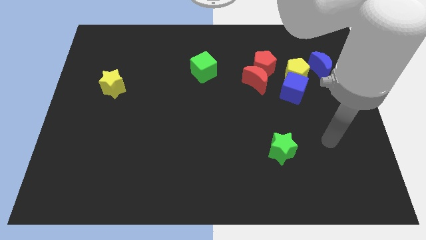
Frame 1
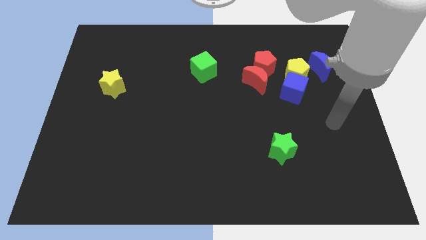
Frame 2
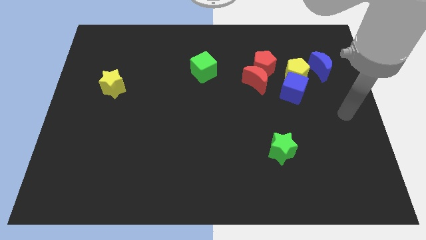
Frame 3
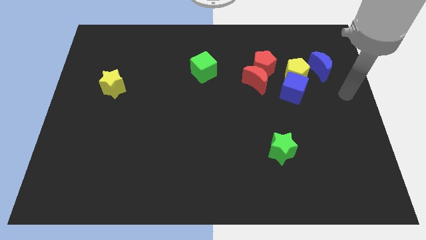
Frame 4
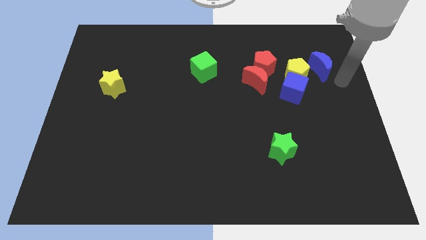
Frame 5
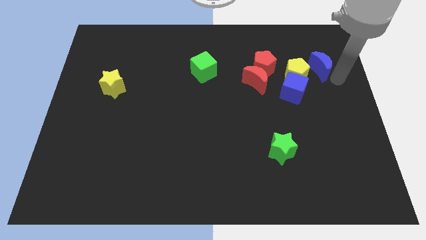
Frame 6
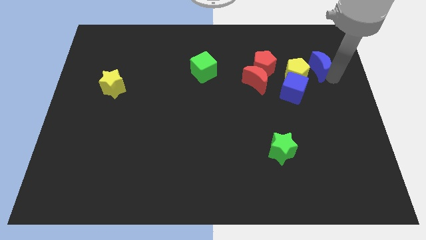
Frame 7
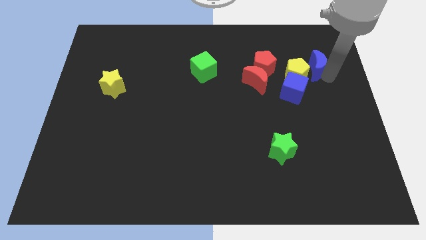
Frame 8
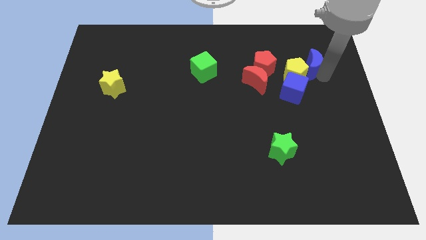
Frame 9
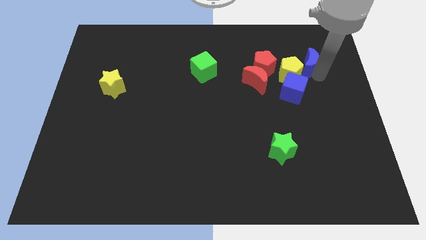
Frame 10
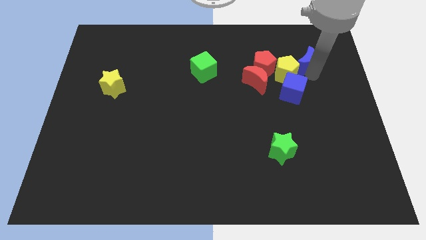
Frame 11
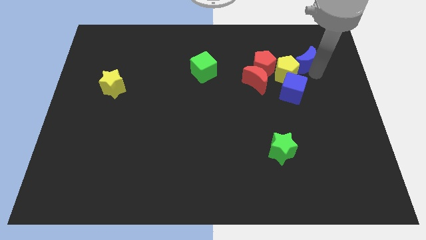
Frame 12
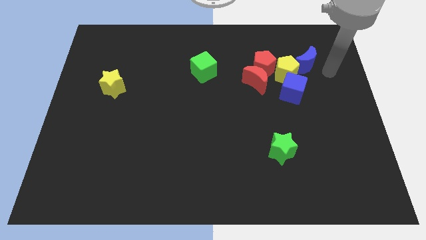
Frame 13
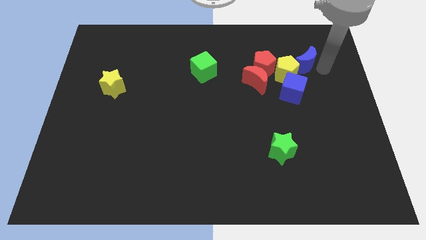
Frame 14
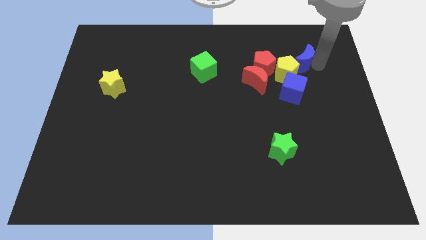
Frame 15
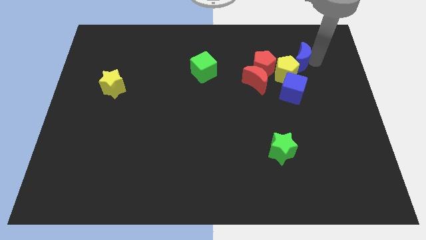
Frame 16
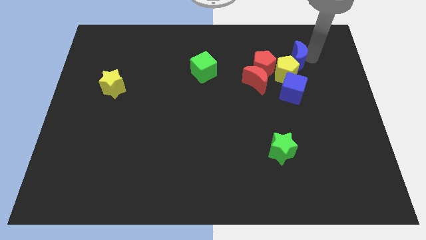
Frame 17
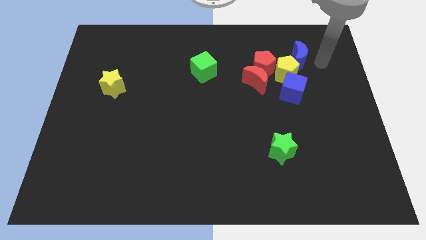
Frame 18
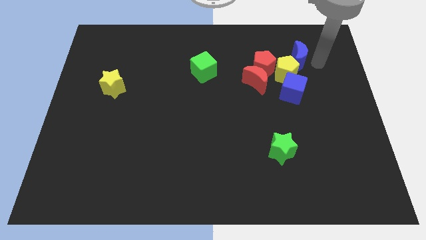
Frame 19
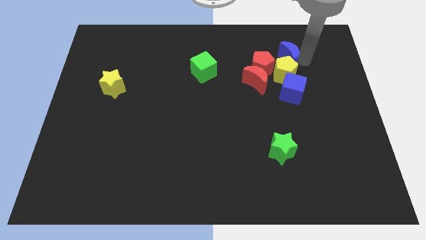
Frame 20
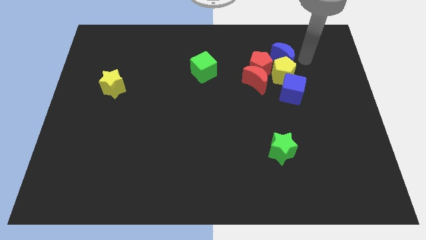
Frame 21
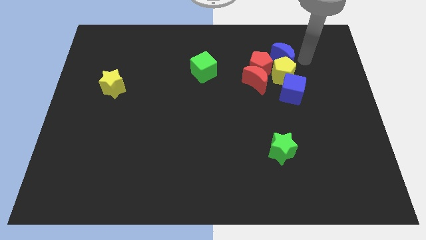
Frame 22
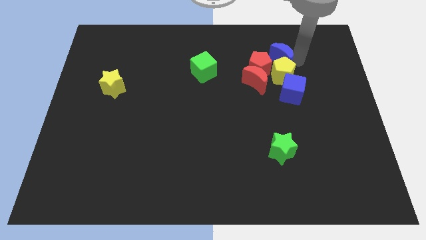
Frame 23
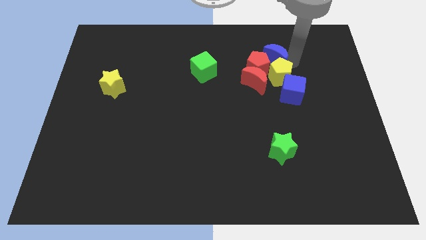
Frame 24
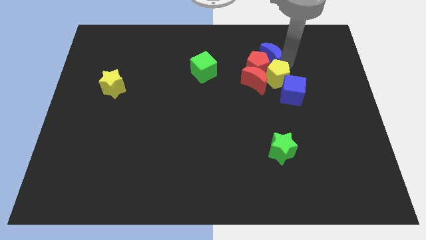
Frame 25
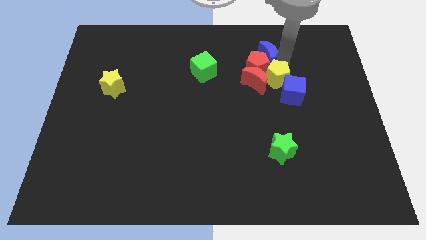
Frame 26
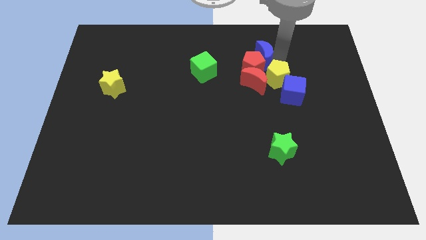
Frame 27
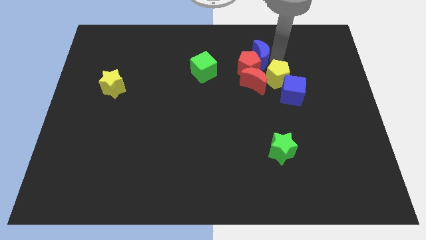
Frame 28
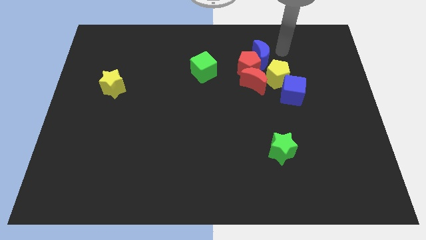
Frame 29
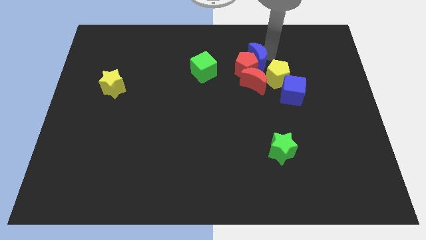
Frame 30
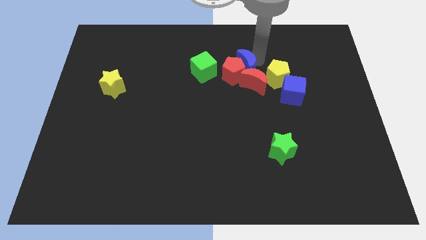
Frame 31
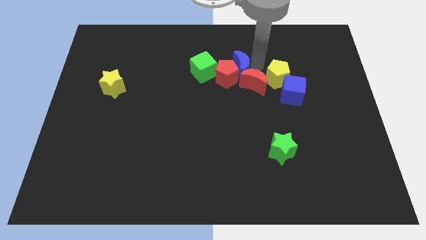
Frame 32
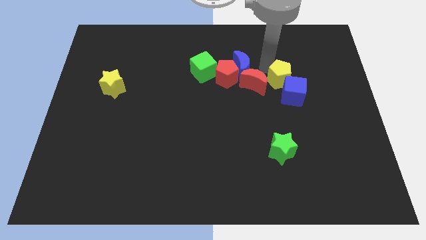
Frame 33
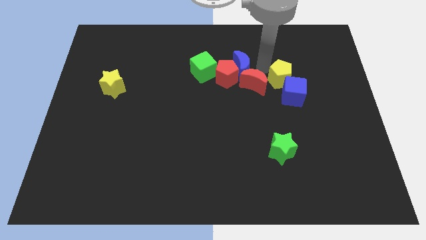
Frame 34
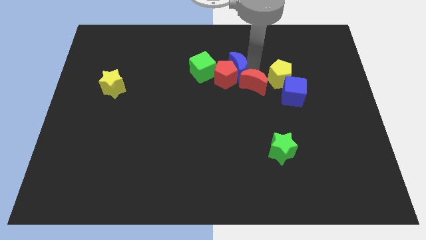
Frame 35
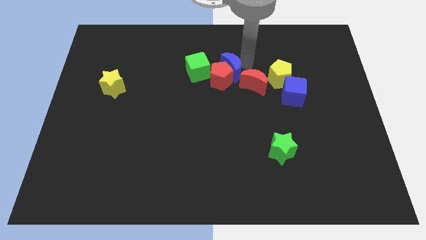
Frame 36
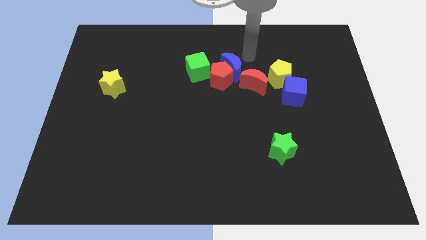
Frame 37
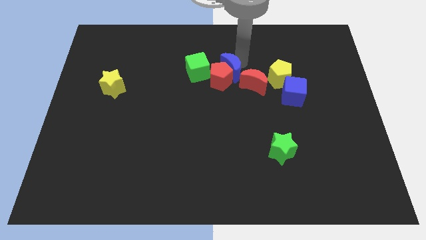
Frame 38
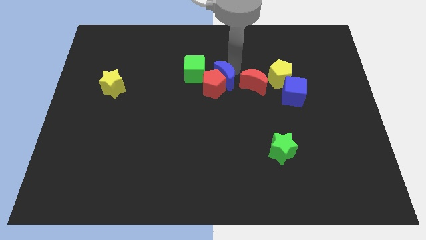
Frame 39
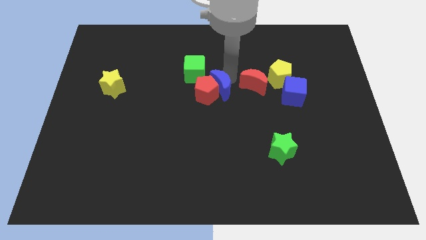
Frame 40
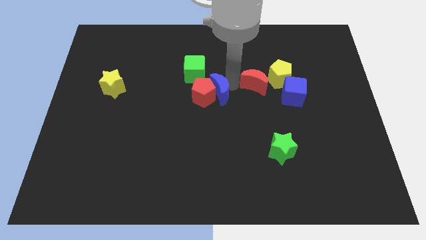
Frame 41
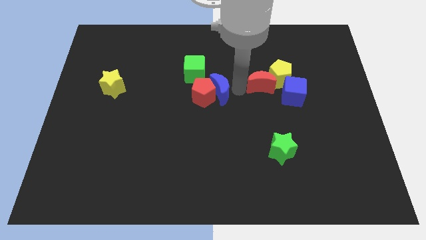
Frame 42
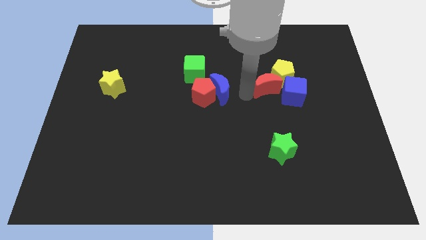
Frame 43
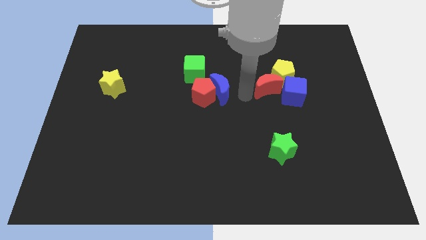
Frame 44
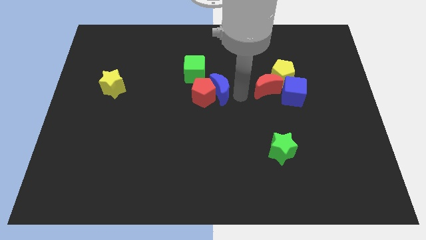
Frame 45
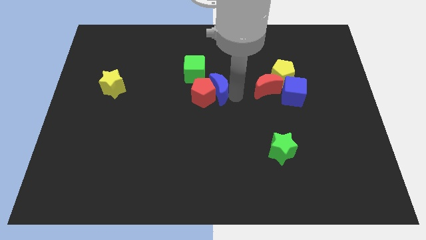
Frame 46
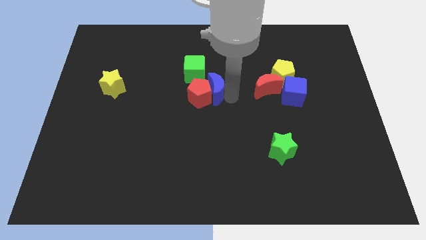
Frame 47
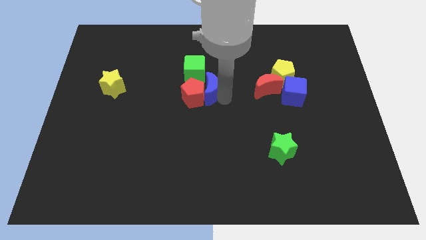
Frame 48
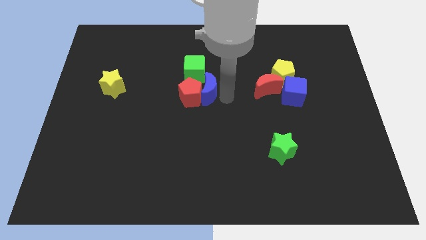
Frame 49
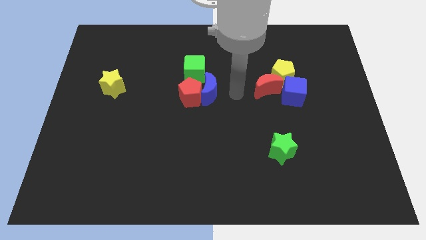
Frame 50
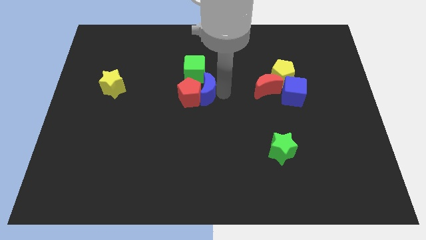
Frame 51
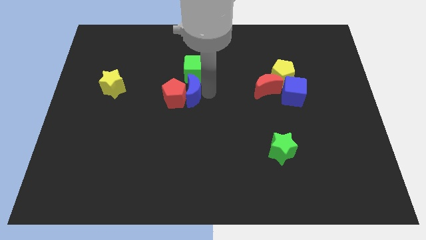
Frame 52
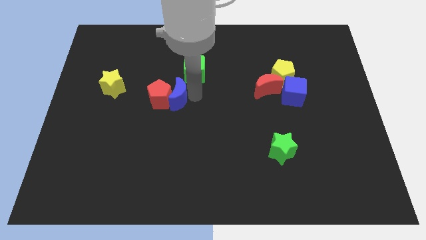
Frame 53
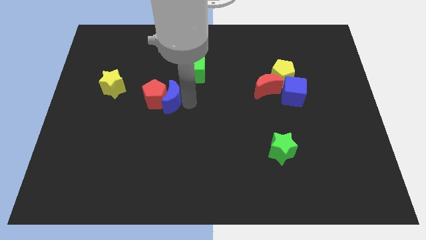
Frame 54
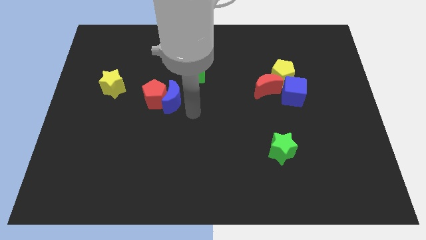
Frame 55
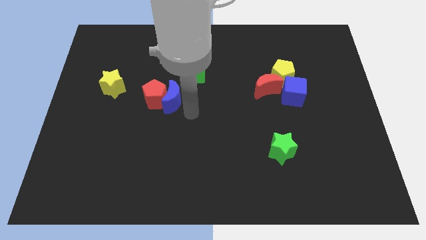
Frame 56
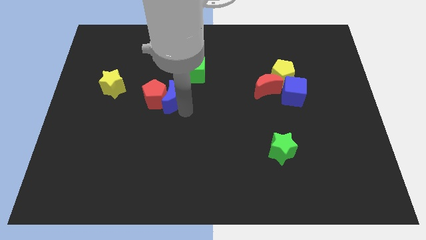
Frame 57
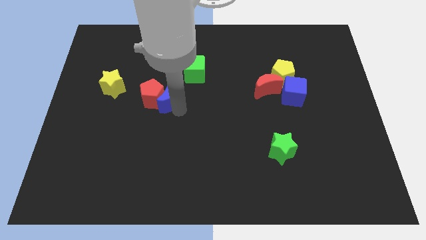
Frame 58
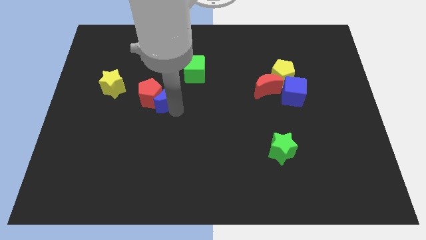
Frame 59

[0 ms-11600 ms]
move the blue moon just right of the yellow star

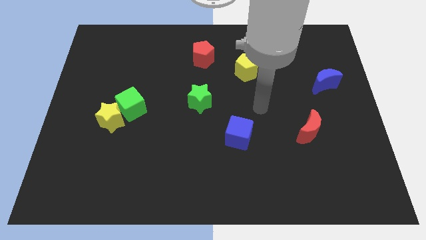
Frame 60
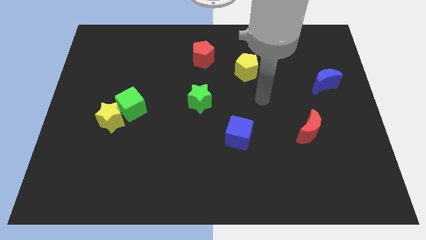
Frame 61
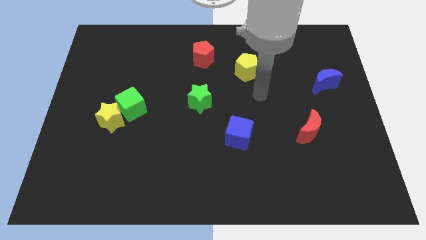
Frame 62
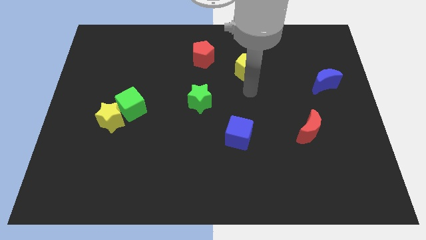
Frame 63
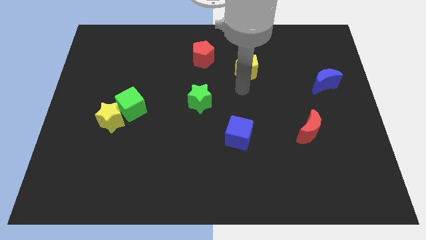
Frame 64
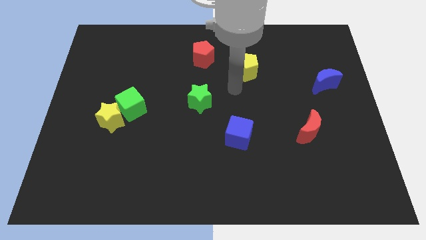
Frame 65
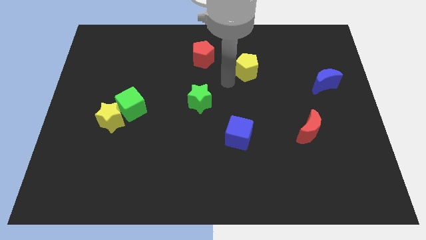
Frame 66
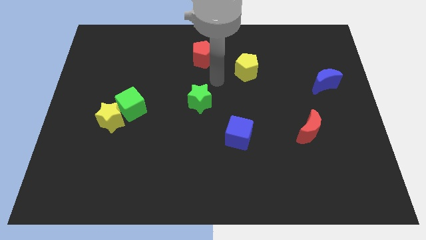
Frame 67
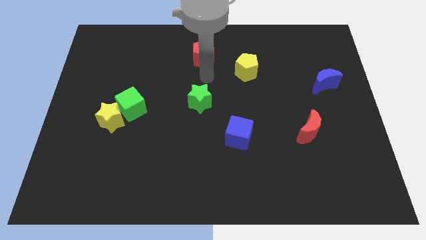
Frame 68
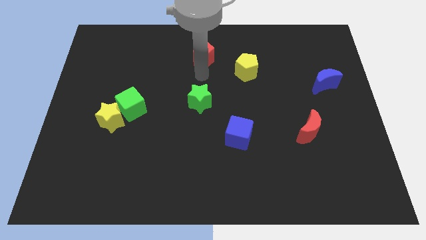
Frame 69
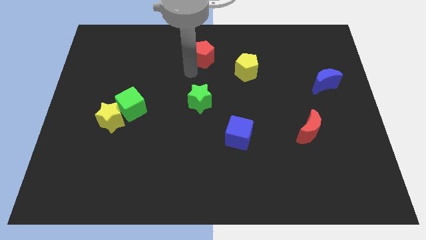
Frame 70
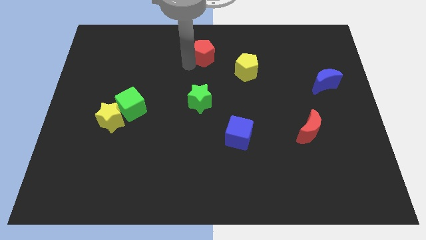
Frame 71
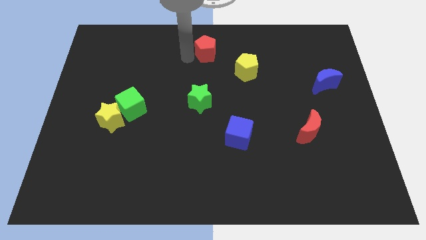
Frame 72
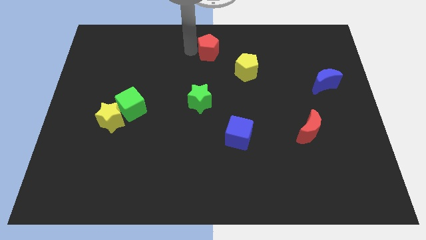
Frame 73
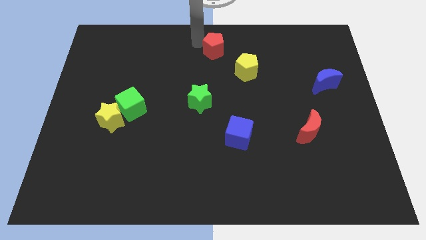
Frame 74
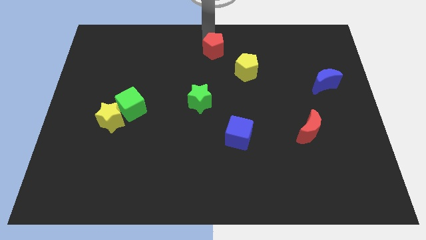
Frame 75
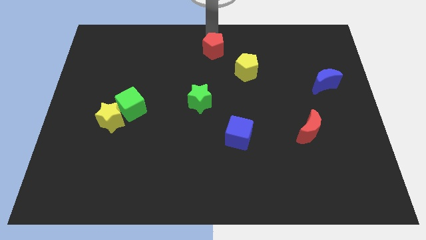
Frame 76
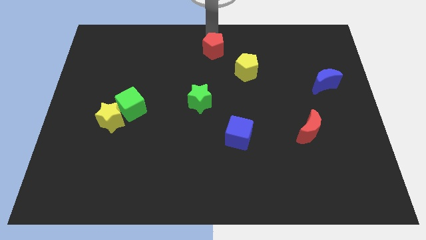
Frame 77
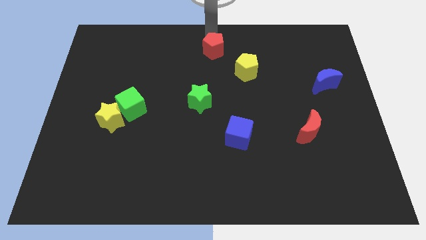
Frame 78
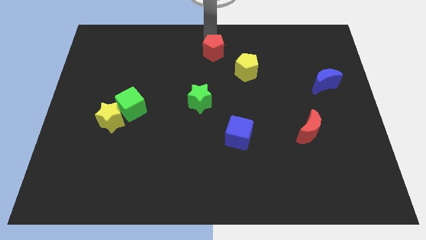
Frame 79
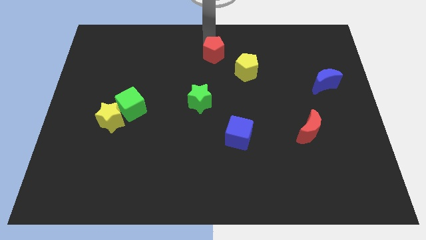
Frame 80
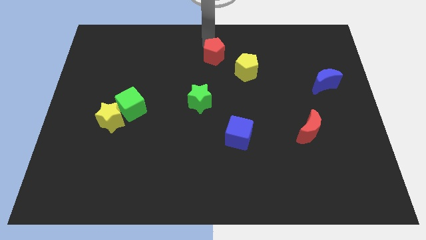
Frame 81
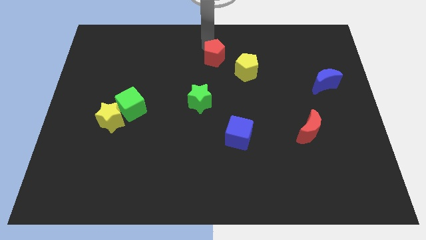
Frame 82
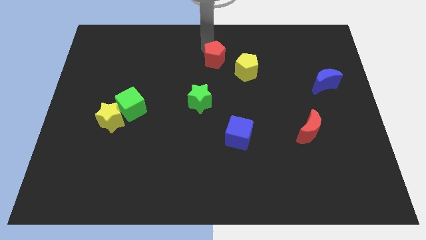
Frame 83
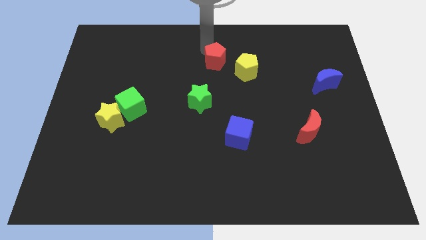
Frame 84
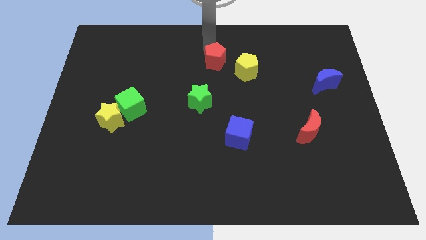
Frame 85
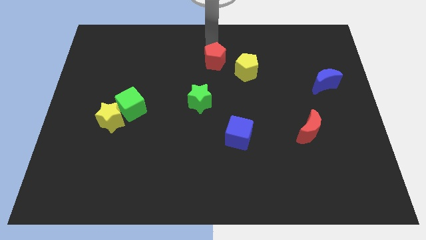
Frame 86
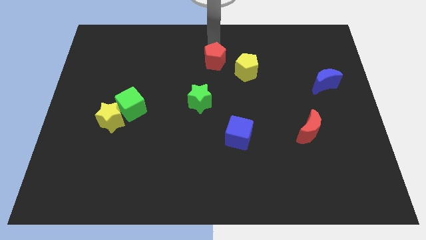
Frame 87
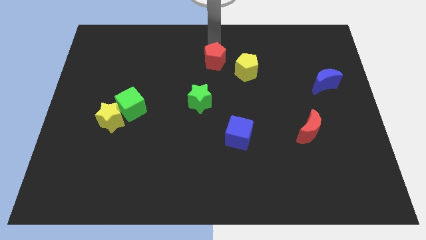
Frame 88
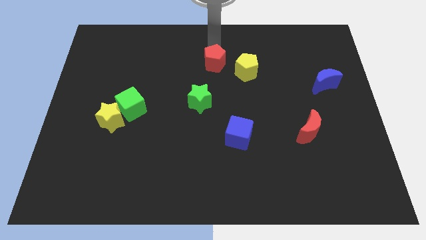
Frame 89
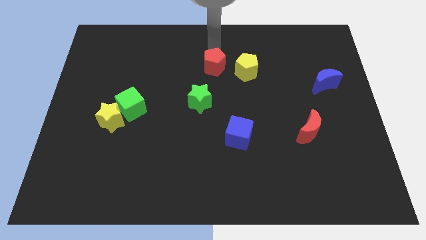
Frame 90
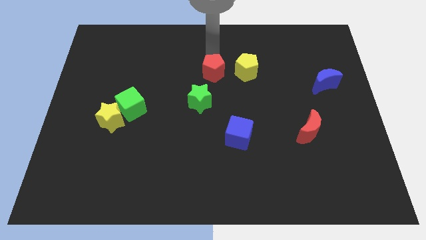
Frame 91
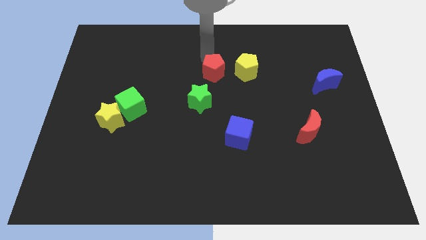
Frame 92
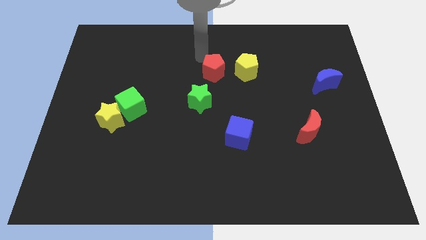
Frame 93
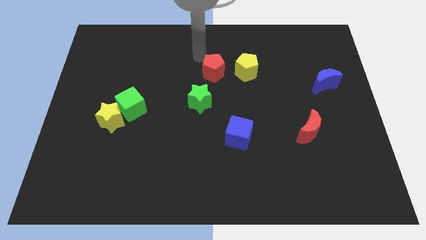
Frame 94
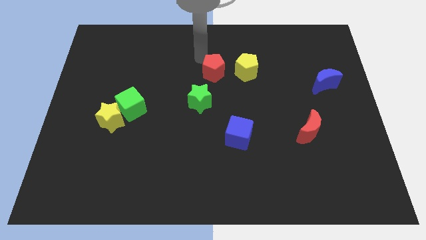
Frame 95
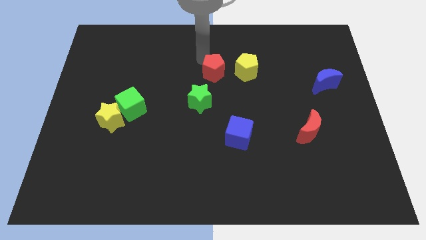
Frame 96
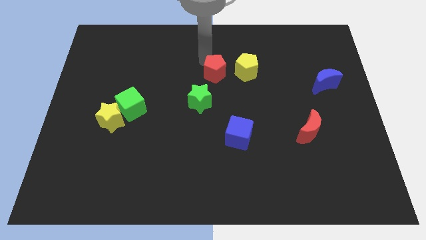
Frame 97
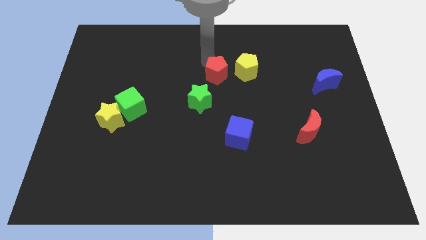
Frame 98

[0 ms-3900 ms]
push the red pentagon diagonally down and to the left of the yellow pentagon
